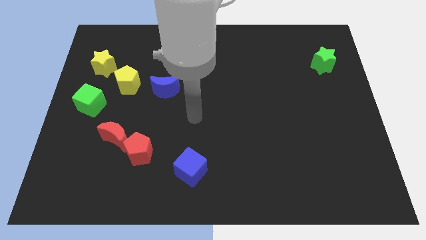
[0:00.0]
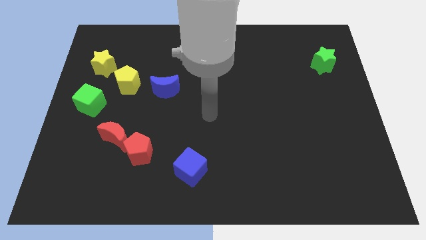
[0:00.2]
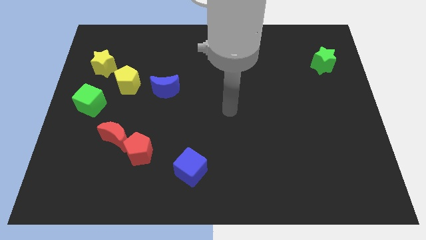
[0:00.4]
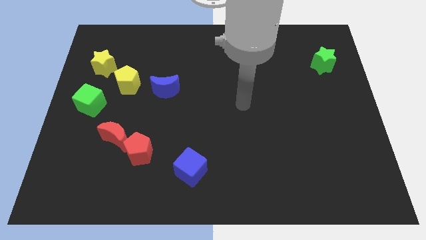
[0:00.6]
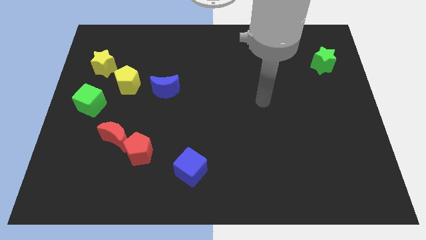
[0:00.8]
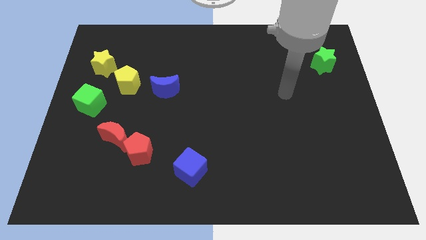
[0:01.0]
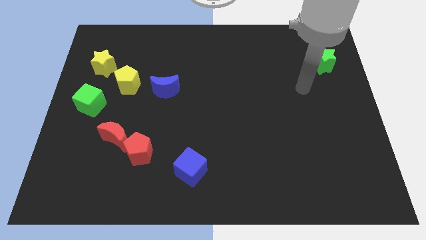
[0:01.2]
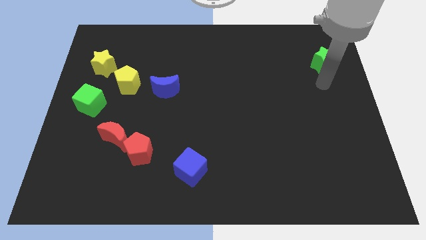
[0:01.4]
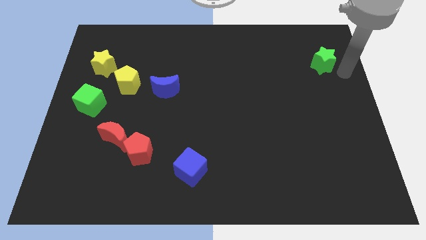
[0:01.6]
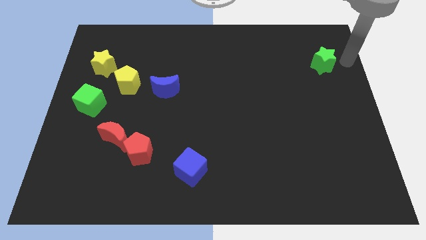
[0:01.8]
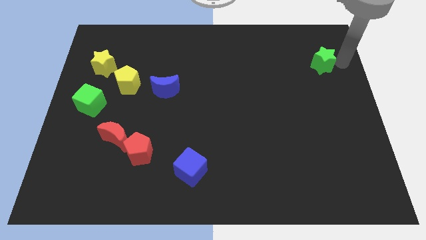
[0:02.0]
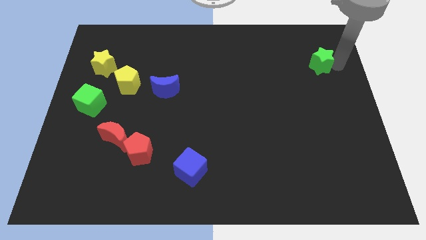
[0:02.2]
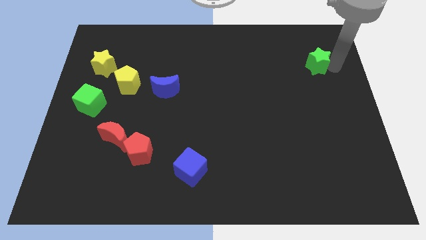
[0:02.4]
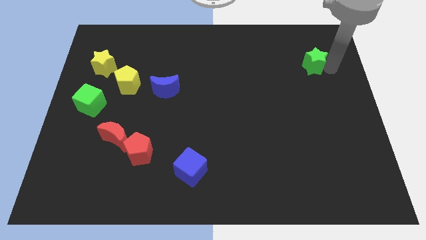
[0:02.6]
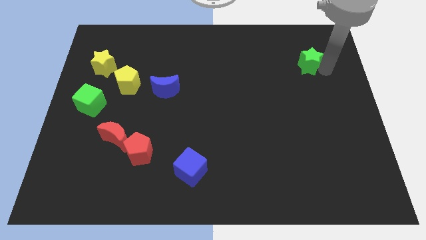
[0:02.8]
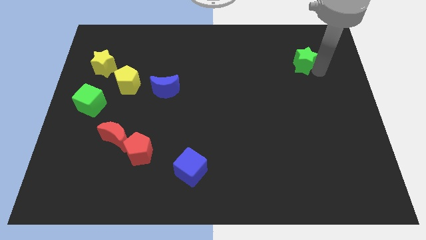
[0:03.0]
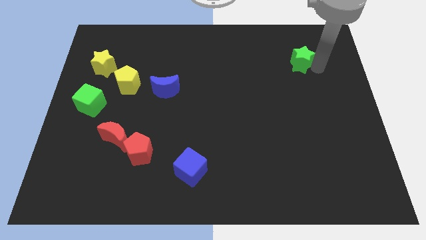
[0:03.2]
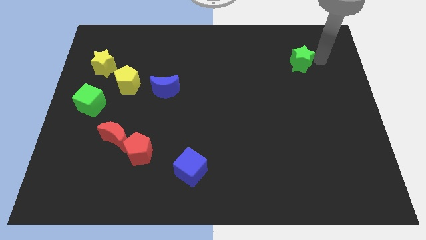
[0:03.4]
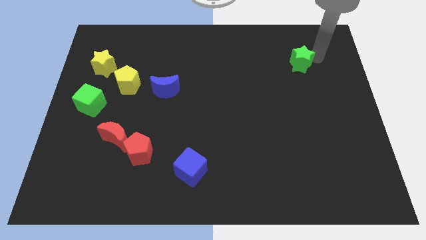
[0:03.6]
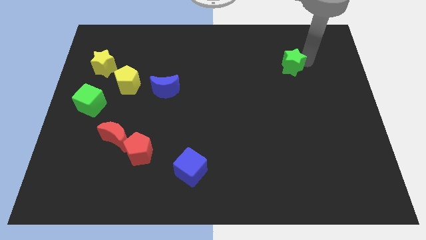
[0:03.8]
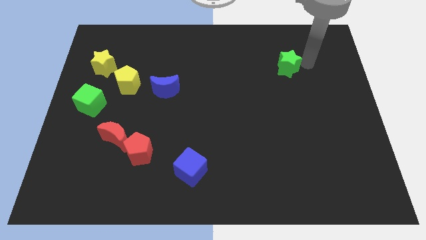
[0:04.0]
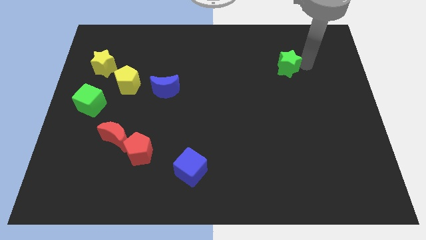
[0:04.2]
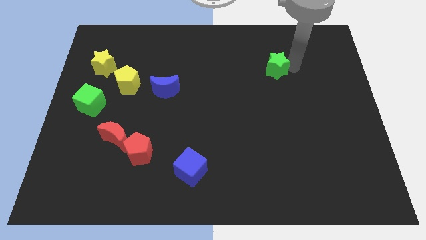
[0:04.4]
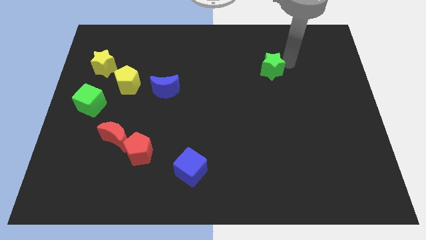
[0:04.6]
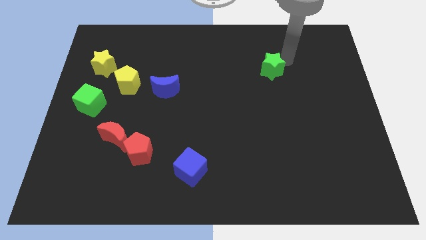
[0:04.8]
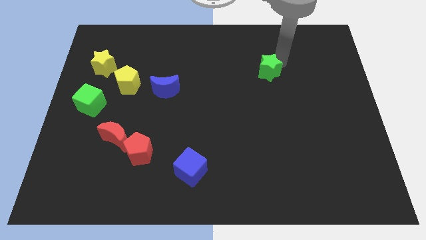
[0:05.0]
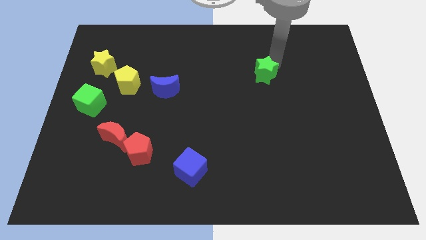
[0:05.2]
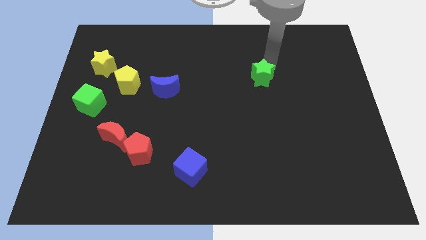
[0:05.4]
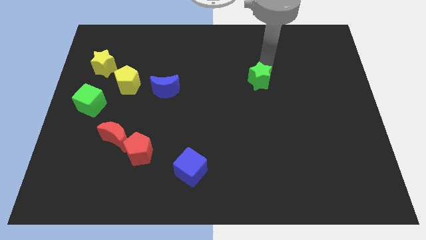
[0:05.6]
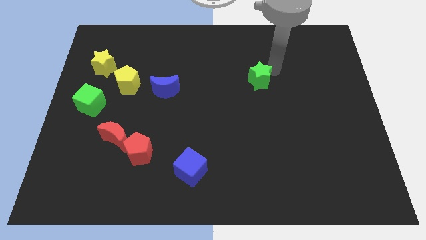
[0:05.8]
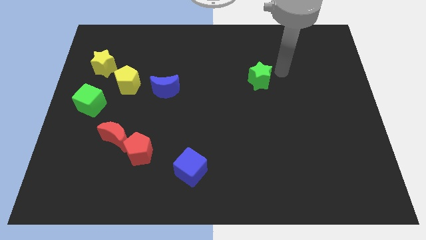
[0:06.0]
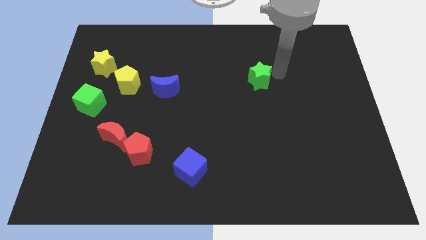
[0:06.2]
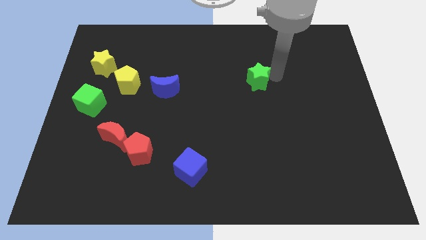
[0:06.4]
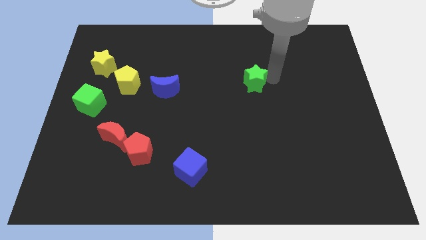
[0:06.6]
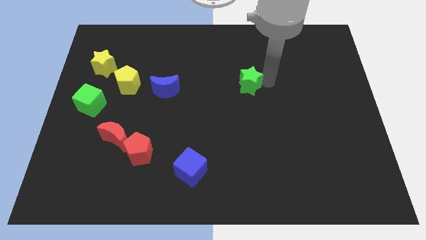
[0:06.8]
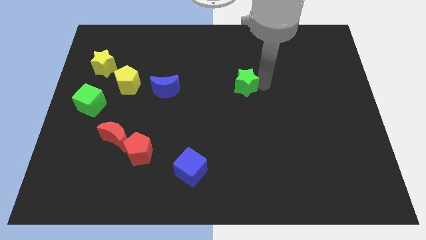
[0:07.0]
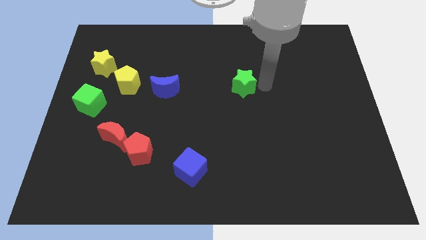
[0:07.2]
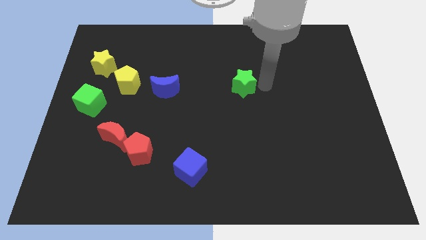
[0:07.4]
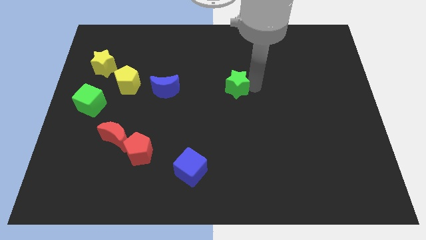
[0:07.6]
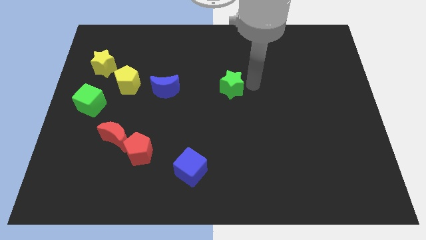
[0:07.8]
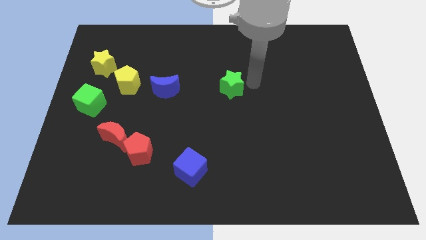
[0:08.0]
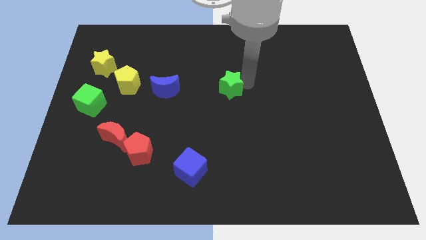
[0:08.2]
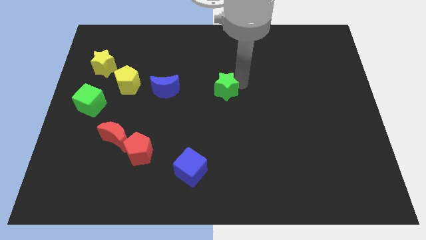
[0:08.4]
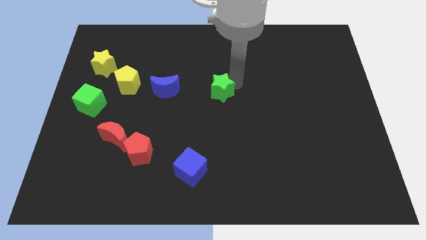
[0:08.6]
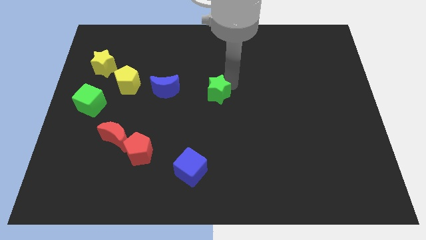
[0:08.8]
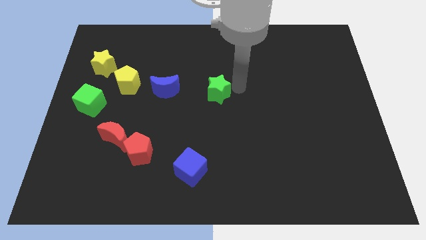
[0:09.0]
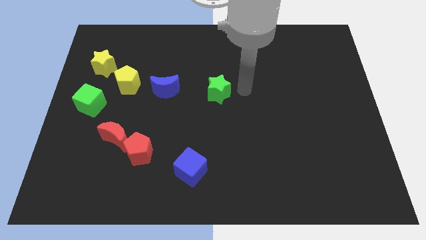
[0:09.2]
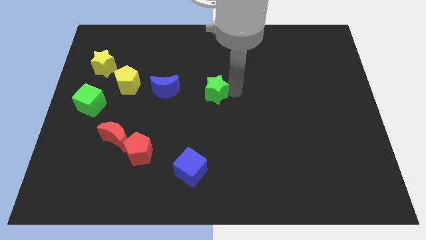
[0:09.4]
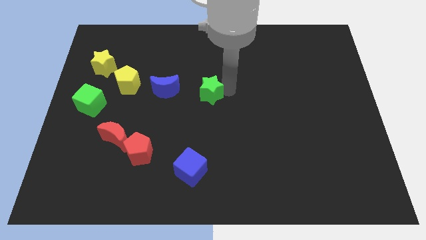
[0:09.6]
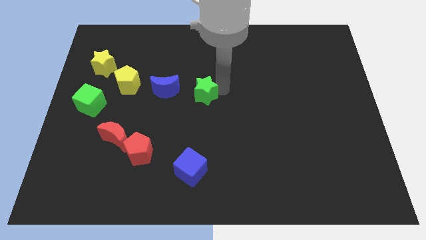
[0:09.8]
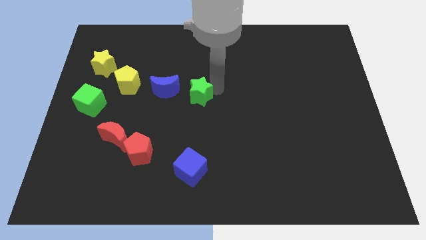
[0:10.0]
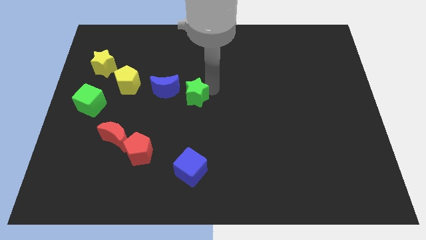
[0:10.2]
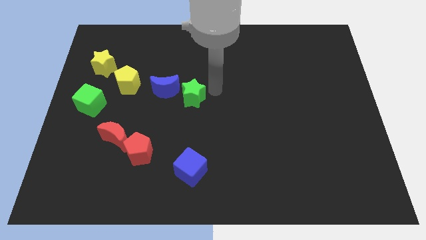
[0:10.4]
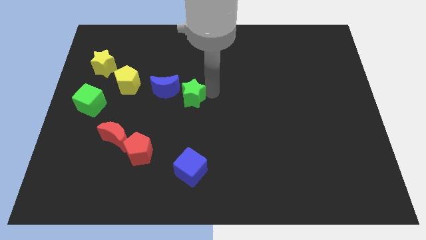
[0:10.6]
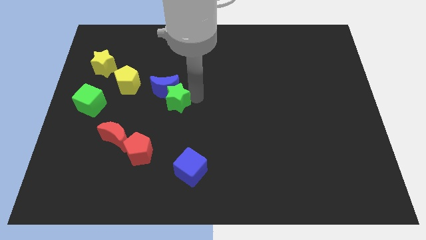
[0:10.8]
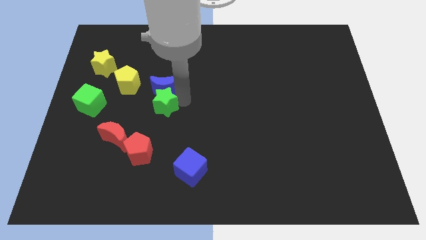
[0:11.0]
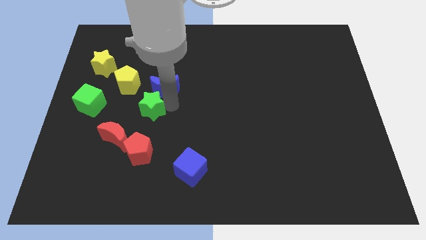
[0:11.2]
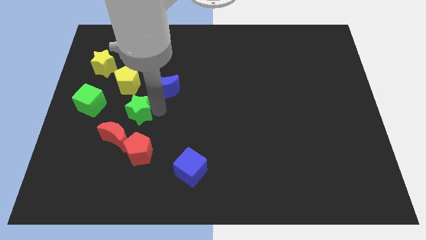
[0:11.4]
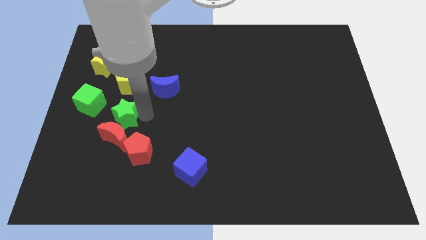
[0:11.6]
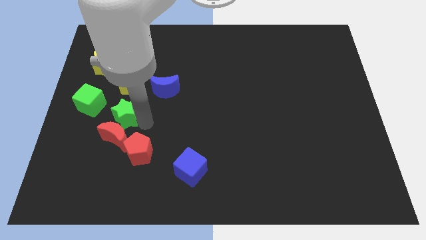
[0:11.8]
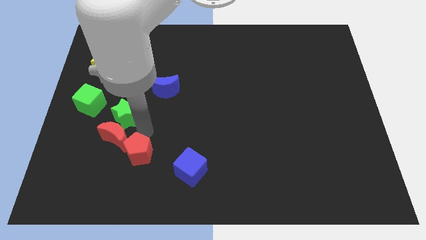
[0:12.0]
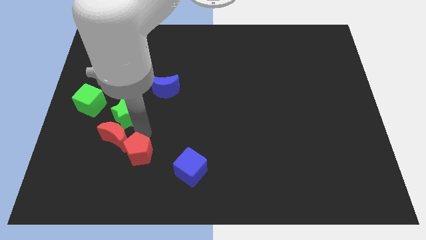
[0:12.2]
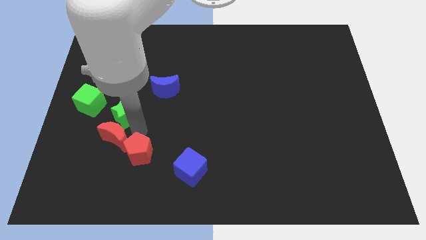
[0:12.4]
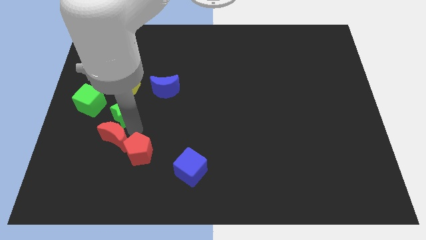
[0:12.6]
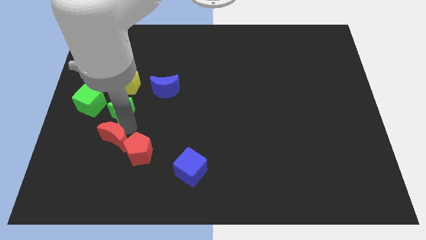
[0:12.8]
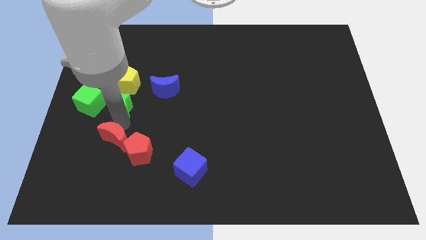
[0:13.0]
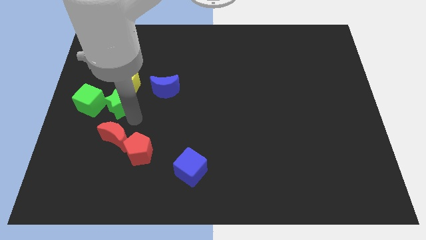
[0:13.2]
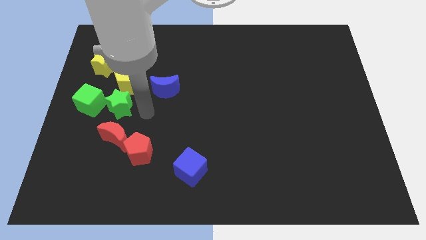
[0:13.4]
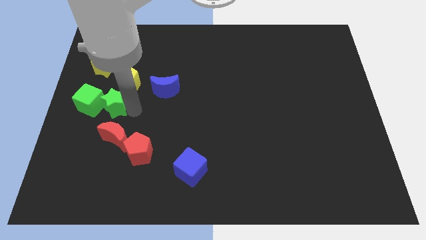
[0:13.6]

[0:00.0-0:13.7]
push the green star close to the green cube

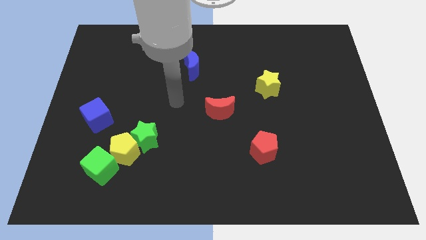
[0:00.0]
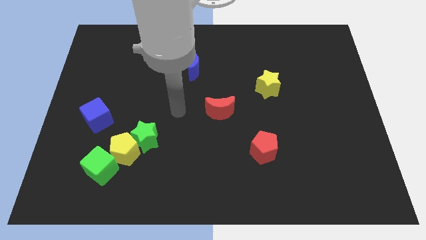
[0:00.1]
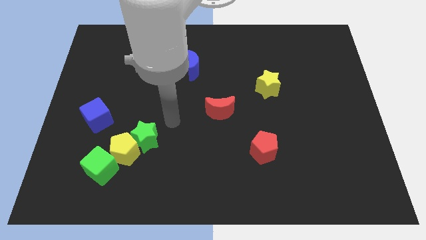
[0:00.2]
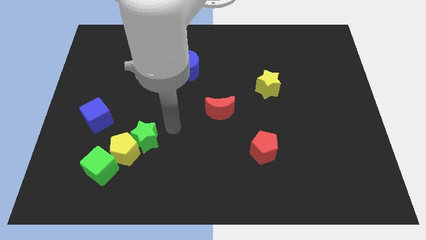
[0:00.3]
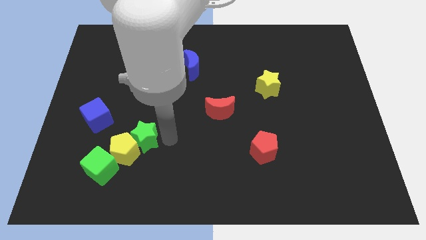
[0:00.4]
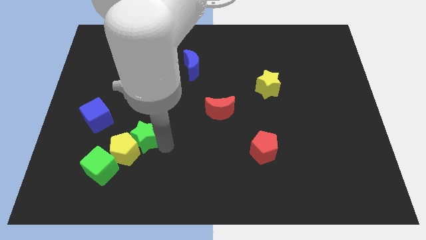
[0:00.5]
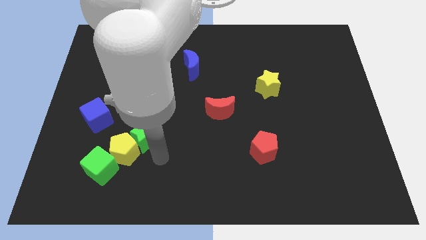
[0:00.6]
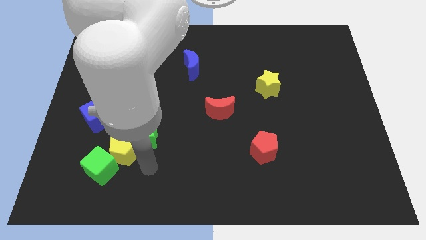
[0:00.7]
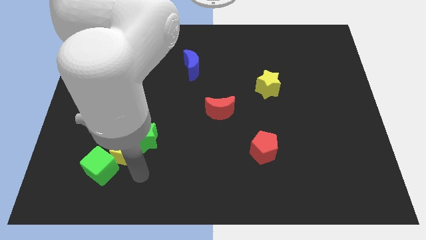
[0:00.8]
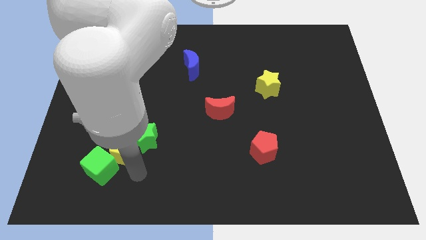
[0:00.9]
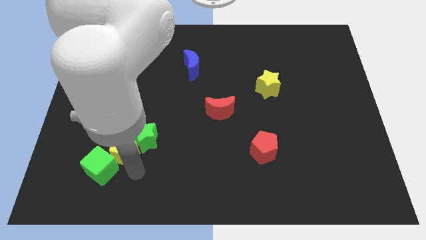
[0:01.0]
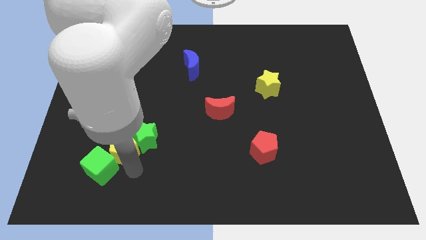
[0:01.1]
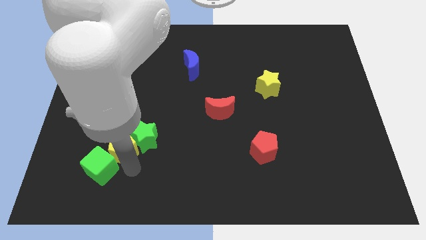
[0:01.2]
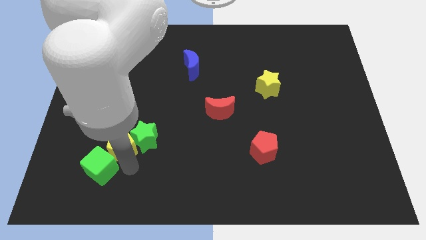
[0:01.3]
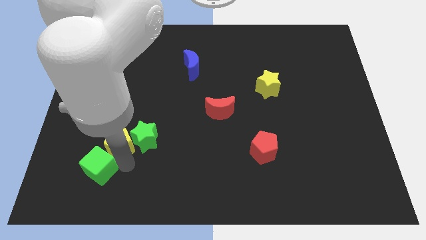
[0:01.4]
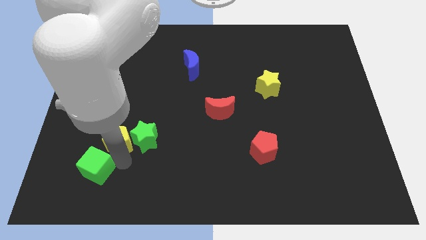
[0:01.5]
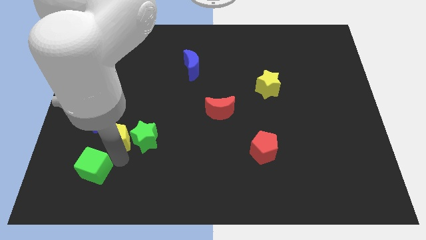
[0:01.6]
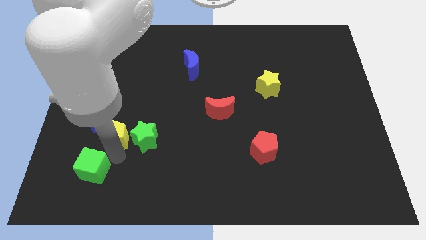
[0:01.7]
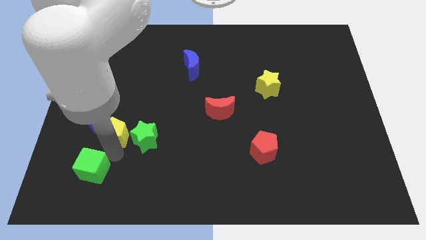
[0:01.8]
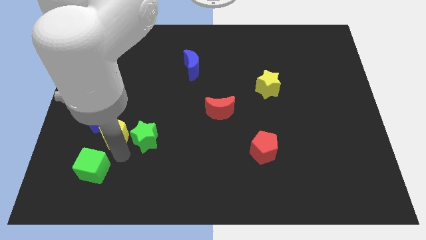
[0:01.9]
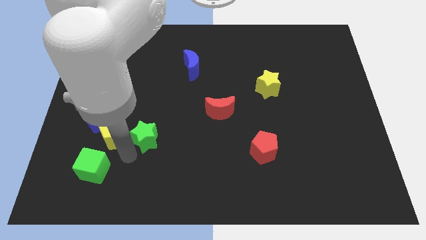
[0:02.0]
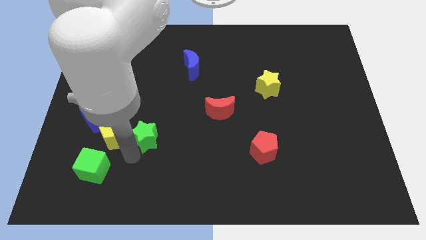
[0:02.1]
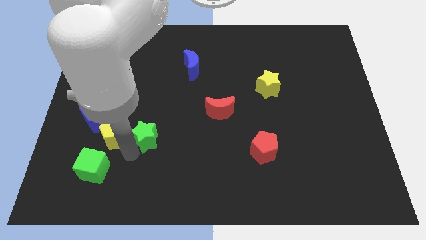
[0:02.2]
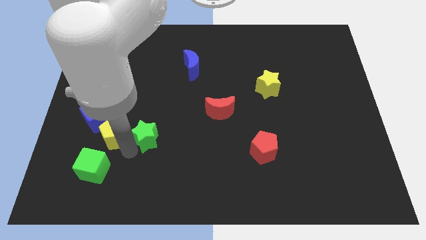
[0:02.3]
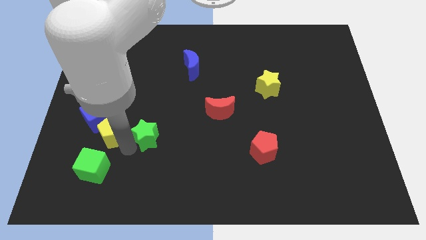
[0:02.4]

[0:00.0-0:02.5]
slide the yellow pentagon towards the blue cube
